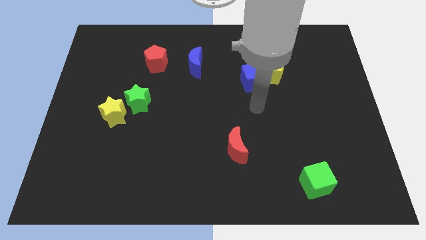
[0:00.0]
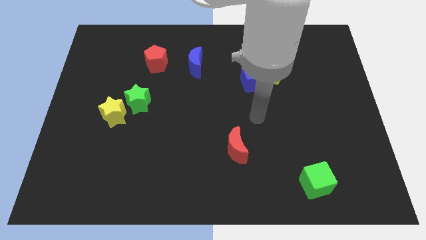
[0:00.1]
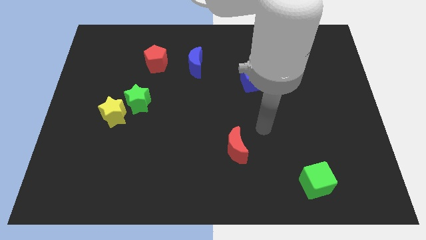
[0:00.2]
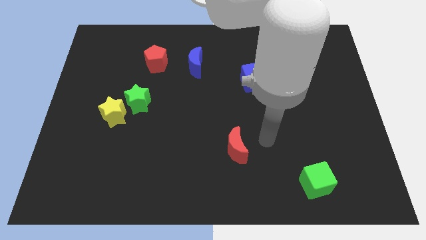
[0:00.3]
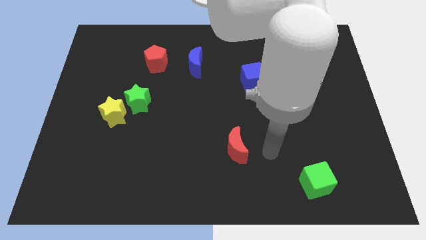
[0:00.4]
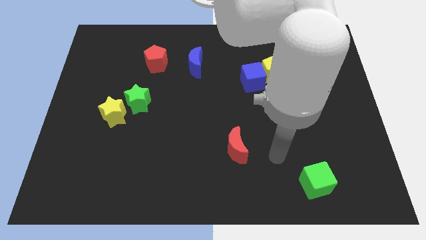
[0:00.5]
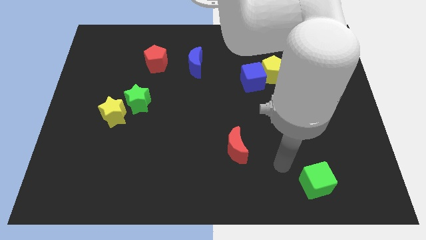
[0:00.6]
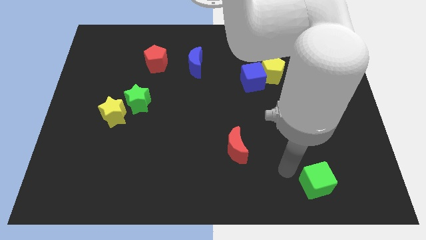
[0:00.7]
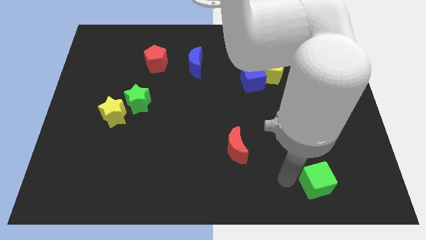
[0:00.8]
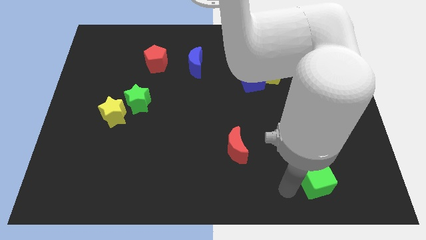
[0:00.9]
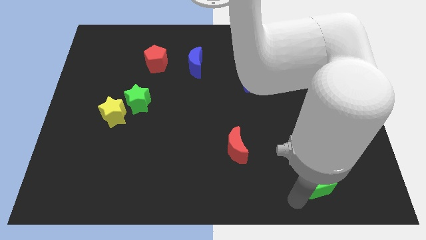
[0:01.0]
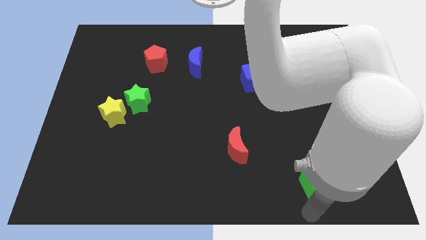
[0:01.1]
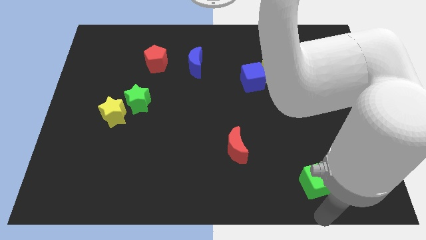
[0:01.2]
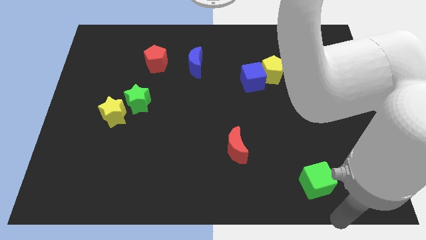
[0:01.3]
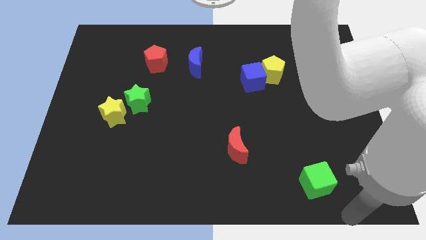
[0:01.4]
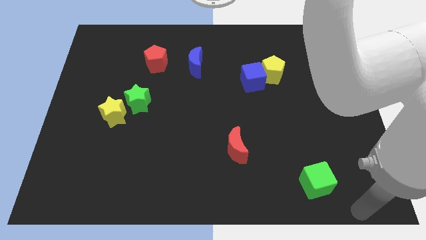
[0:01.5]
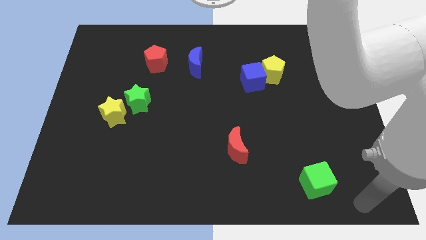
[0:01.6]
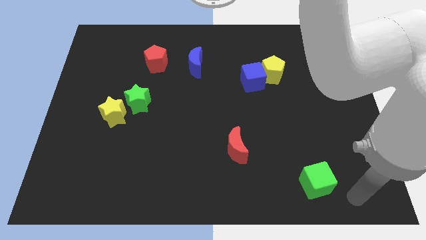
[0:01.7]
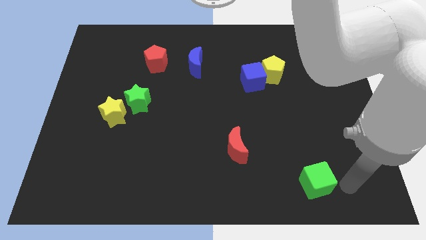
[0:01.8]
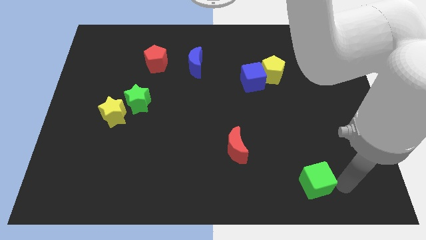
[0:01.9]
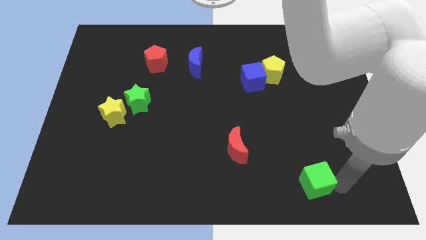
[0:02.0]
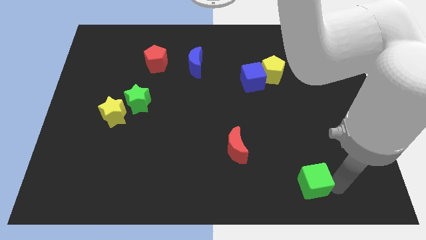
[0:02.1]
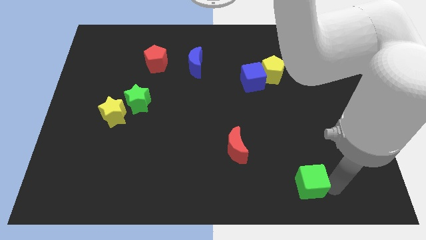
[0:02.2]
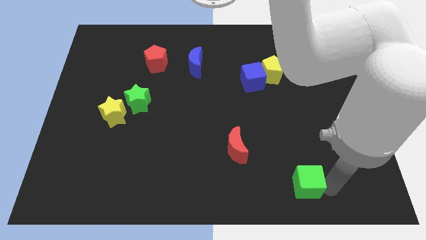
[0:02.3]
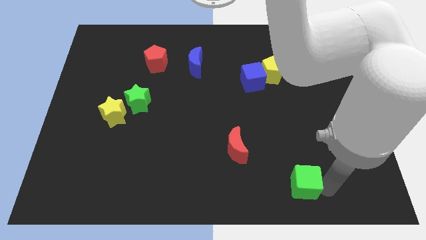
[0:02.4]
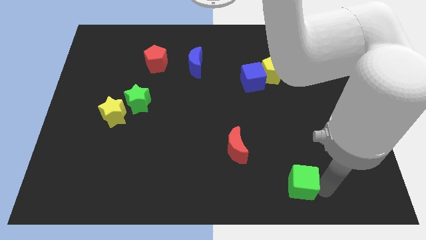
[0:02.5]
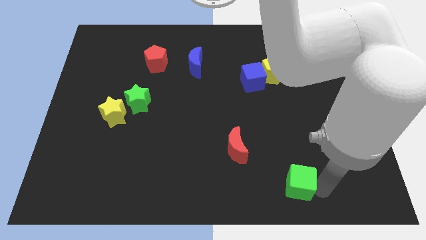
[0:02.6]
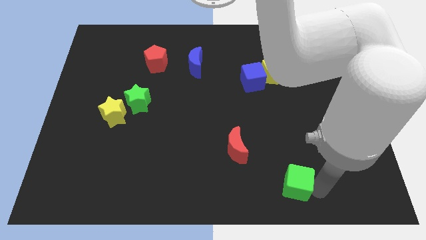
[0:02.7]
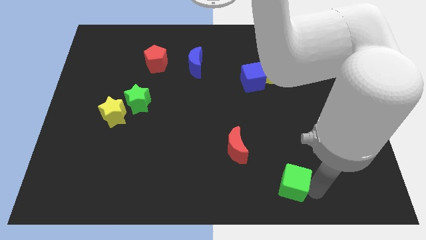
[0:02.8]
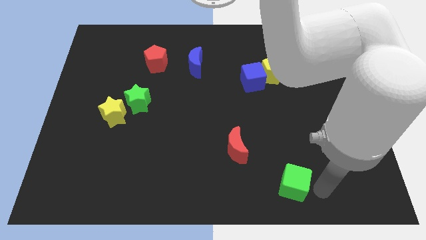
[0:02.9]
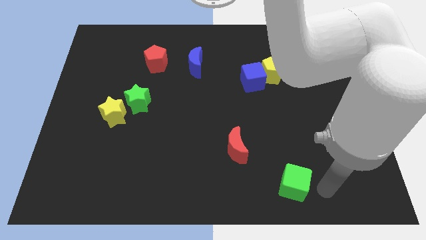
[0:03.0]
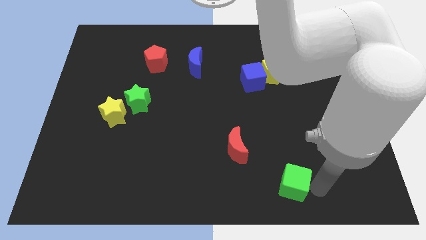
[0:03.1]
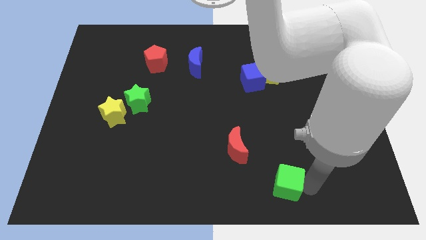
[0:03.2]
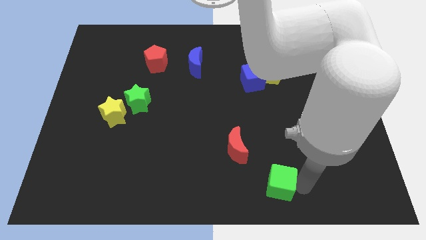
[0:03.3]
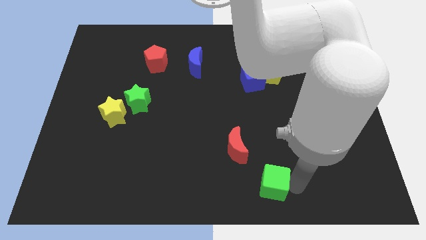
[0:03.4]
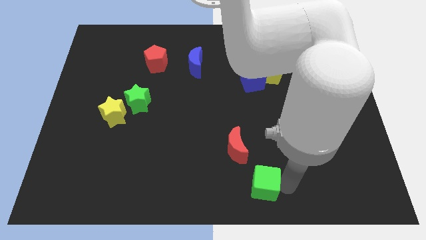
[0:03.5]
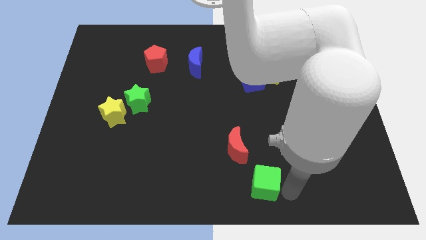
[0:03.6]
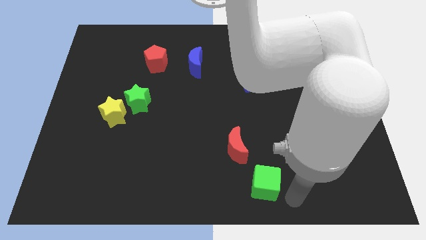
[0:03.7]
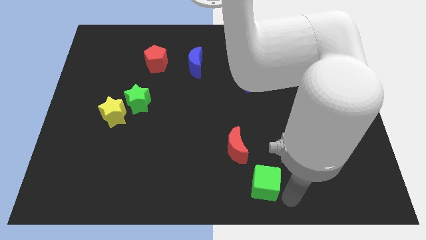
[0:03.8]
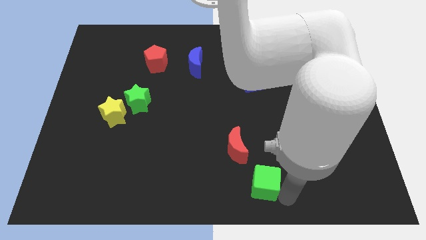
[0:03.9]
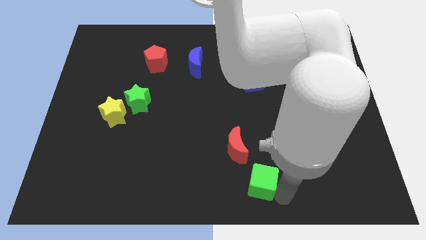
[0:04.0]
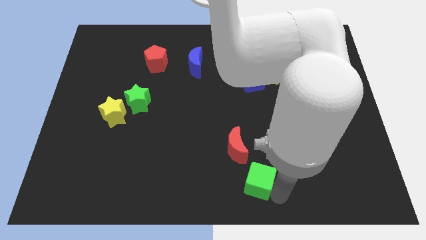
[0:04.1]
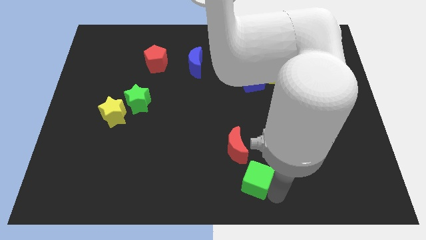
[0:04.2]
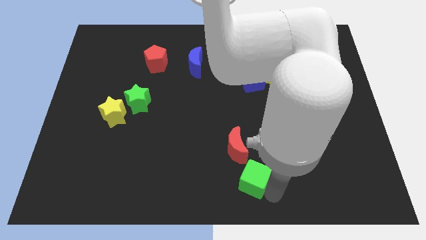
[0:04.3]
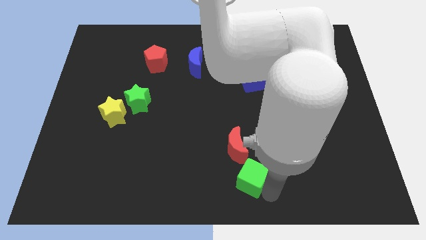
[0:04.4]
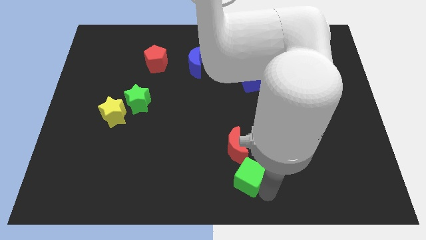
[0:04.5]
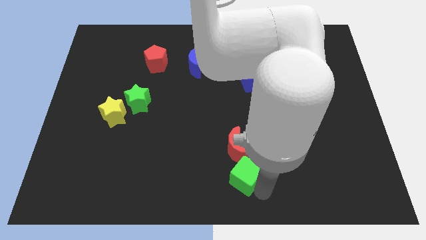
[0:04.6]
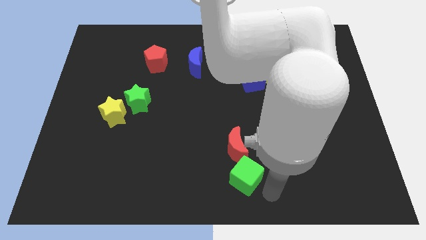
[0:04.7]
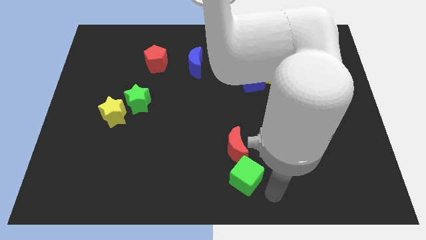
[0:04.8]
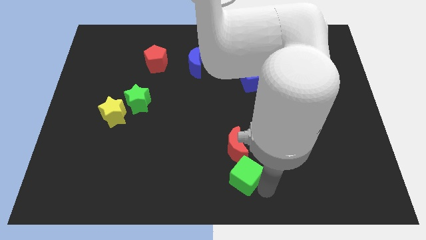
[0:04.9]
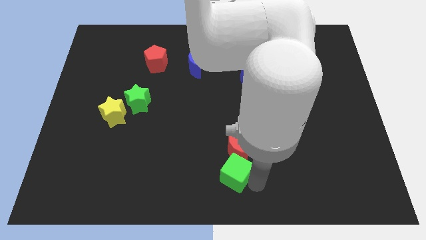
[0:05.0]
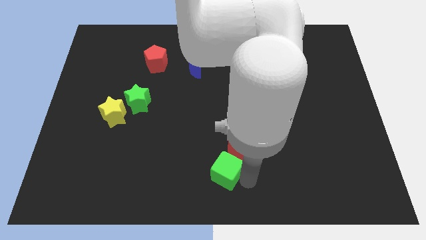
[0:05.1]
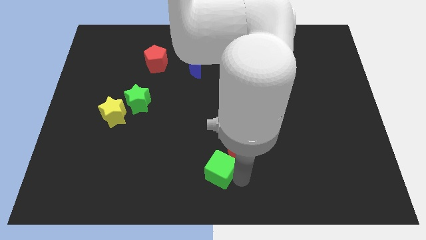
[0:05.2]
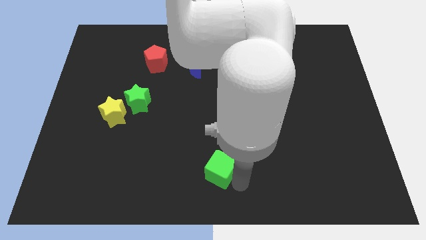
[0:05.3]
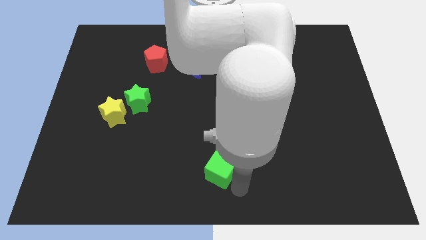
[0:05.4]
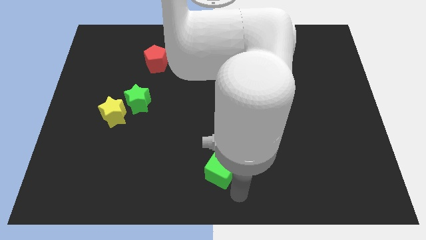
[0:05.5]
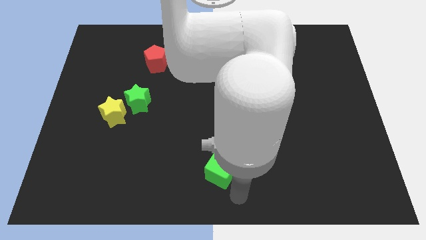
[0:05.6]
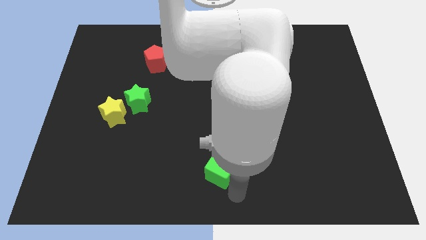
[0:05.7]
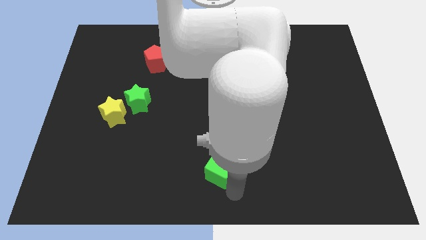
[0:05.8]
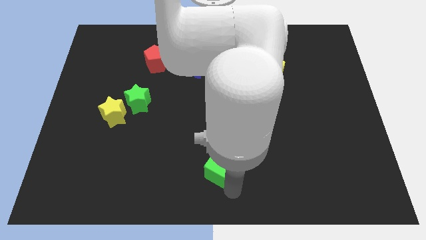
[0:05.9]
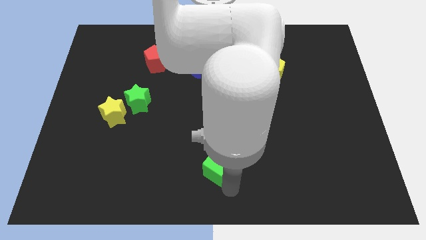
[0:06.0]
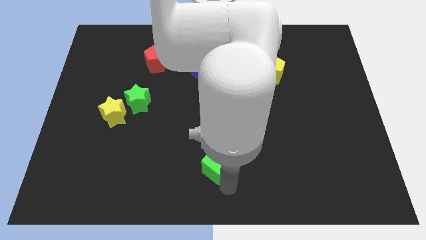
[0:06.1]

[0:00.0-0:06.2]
move the green cube left of the red moon
